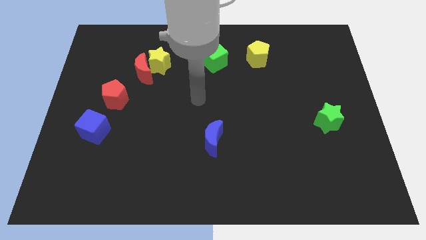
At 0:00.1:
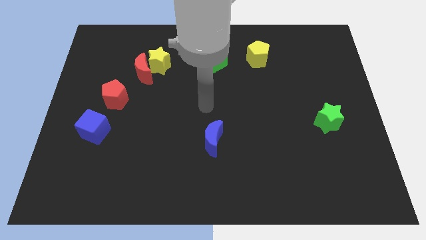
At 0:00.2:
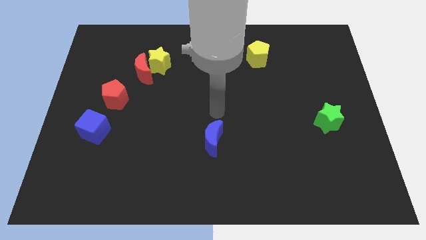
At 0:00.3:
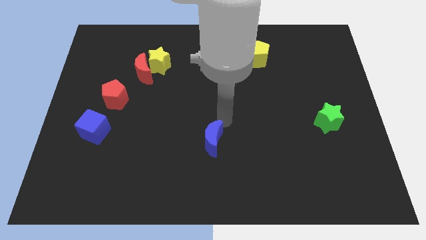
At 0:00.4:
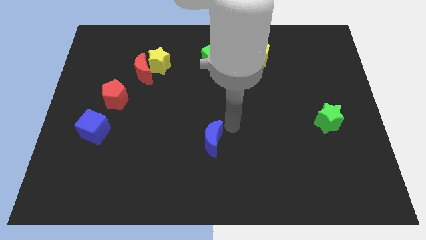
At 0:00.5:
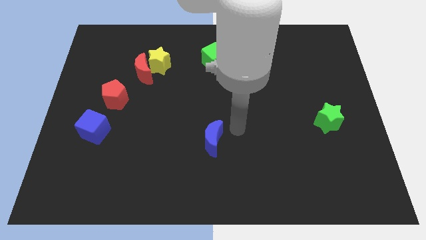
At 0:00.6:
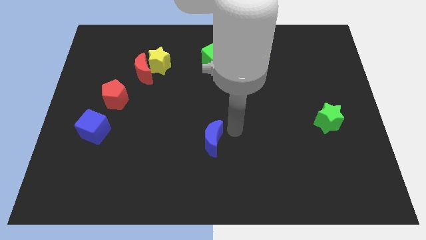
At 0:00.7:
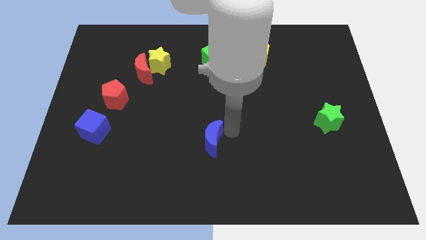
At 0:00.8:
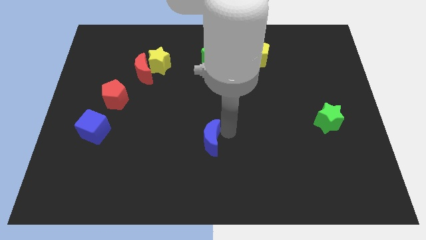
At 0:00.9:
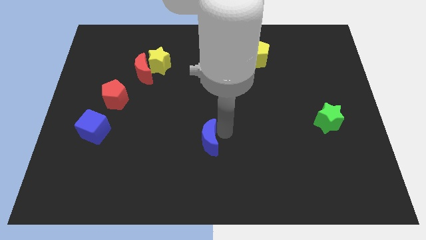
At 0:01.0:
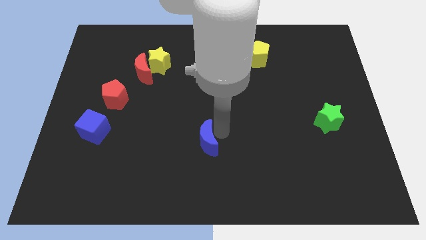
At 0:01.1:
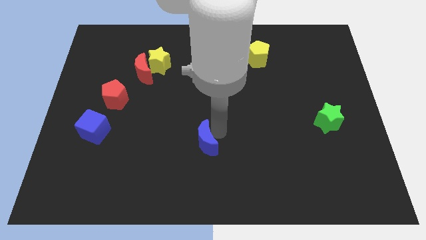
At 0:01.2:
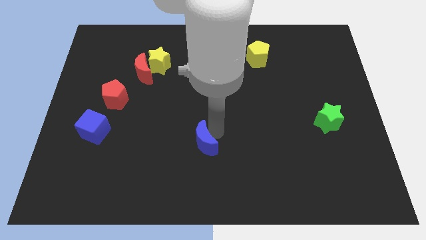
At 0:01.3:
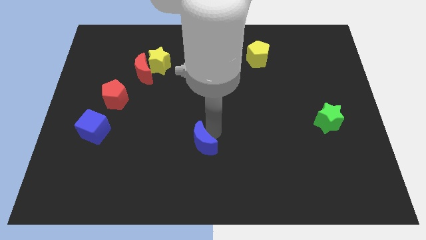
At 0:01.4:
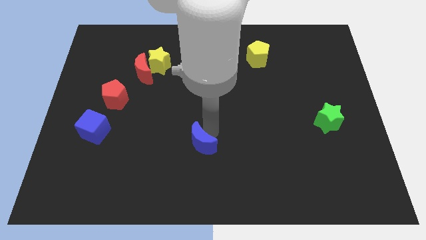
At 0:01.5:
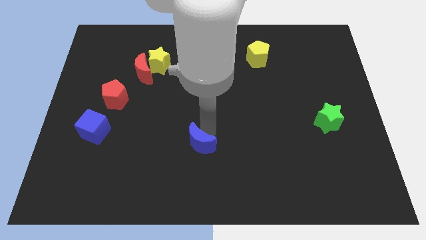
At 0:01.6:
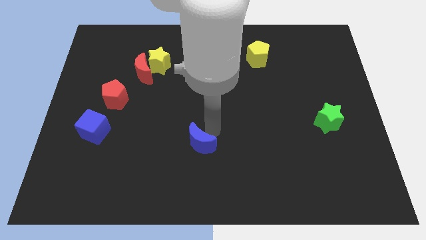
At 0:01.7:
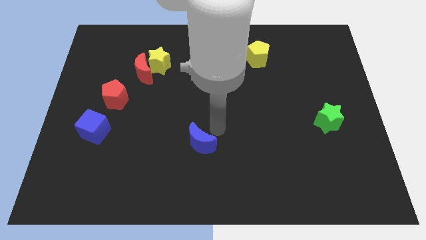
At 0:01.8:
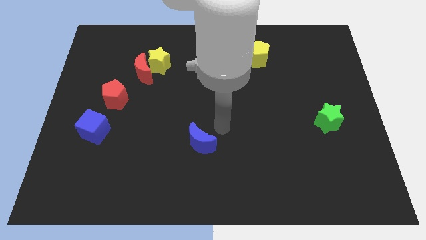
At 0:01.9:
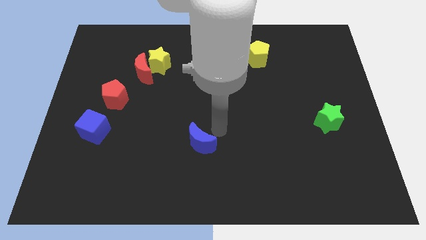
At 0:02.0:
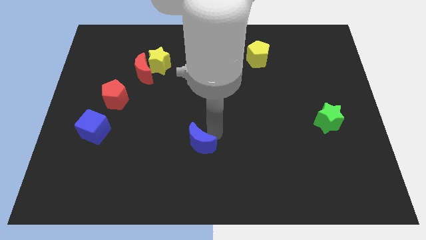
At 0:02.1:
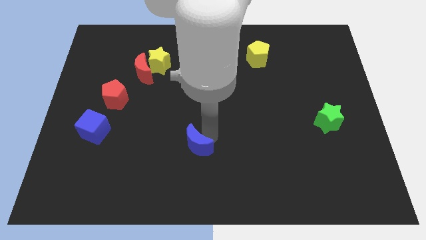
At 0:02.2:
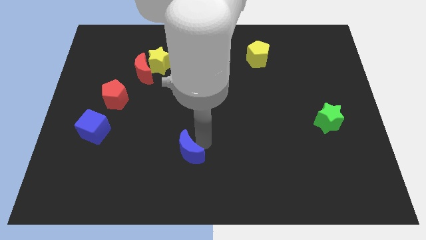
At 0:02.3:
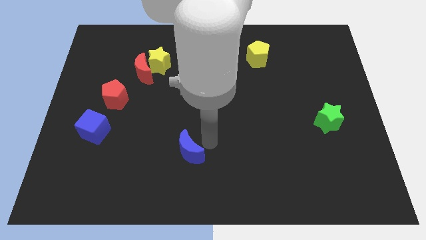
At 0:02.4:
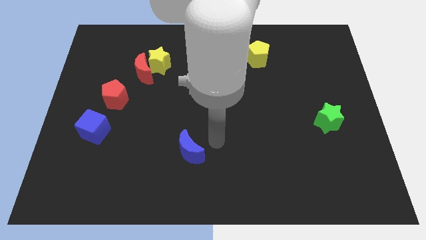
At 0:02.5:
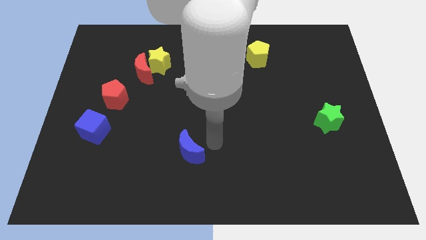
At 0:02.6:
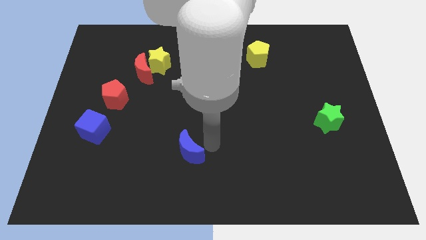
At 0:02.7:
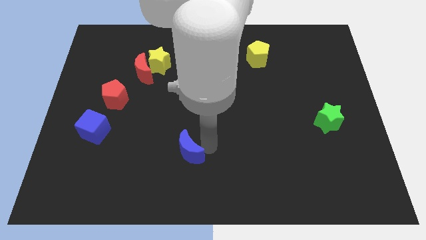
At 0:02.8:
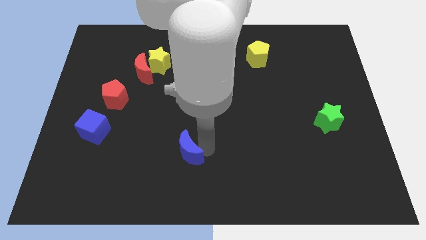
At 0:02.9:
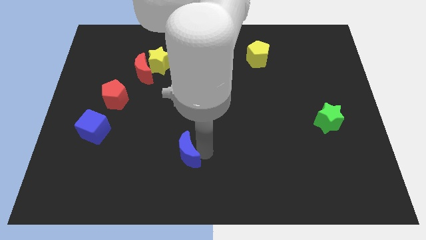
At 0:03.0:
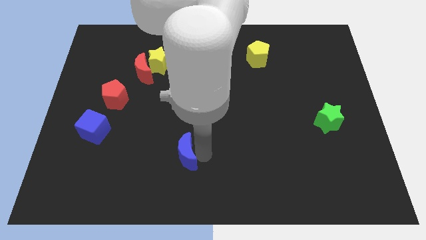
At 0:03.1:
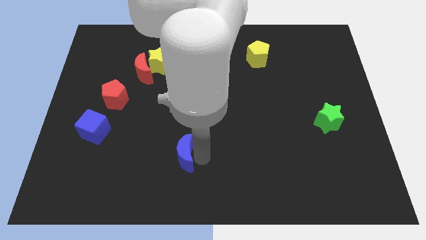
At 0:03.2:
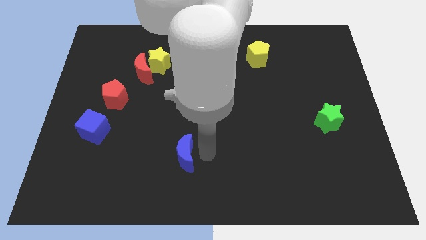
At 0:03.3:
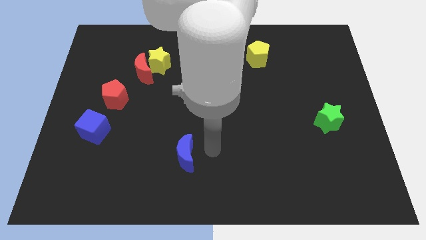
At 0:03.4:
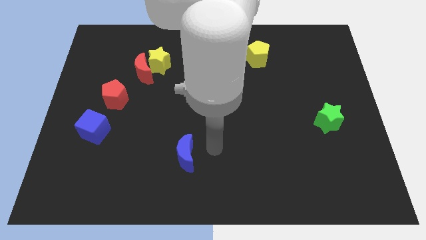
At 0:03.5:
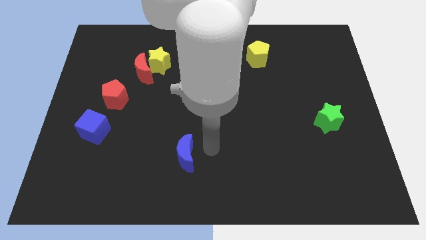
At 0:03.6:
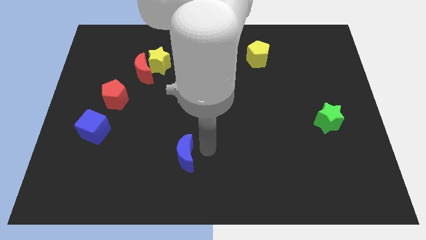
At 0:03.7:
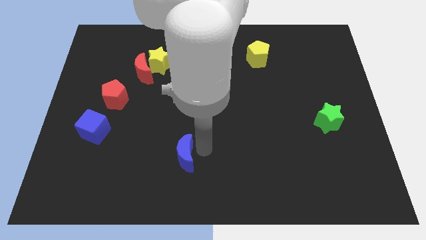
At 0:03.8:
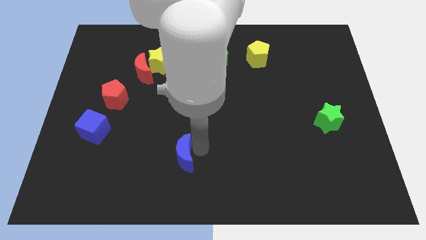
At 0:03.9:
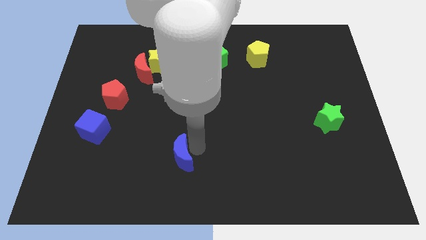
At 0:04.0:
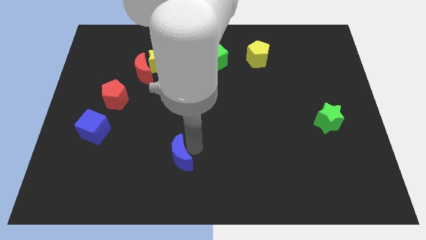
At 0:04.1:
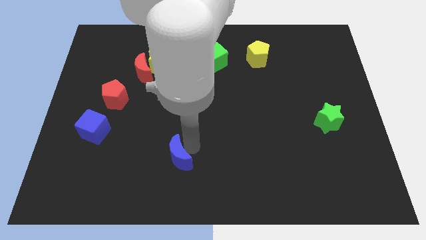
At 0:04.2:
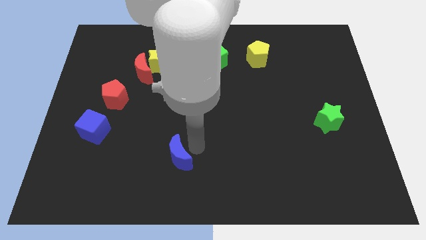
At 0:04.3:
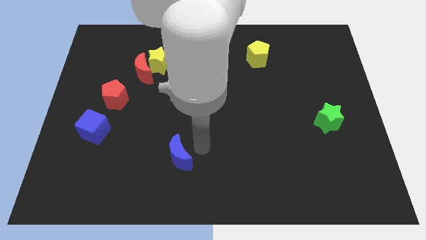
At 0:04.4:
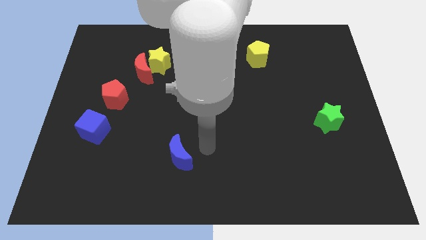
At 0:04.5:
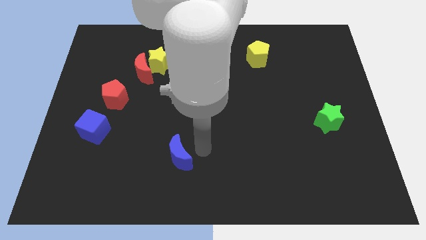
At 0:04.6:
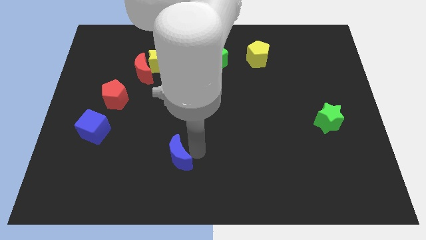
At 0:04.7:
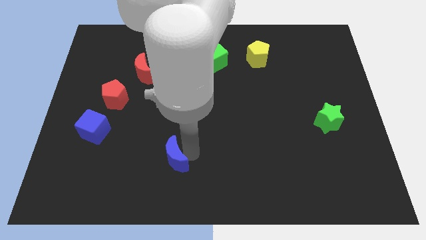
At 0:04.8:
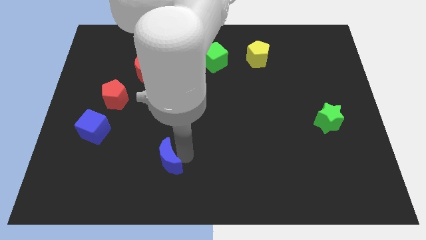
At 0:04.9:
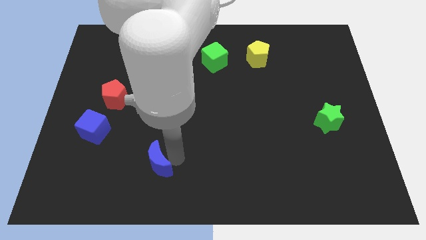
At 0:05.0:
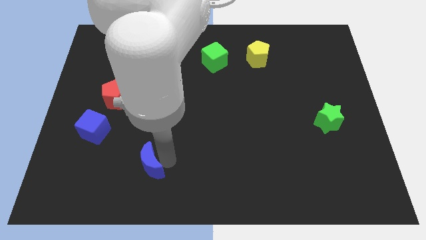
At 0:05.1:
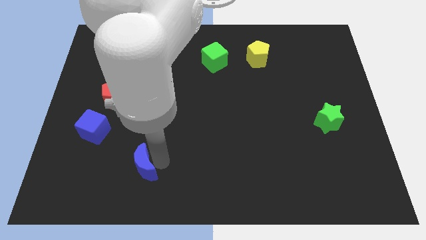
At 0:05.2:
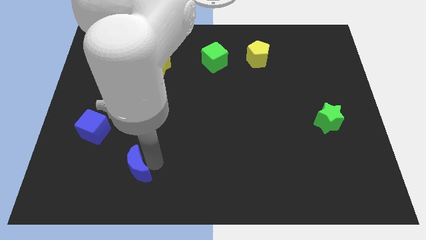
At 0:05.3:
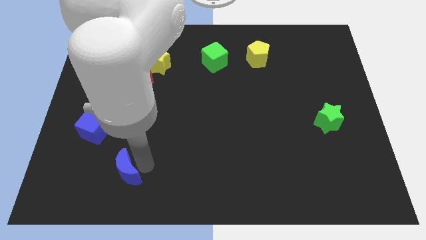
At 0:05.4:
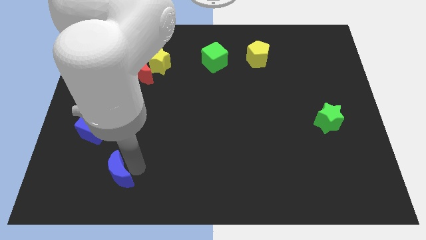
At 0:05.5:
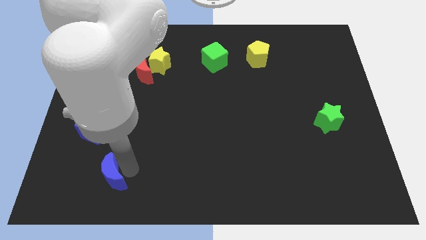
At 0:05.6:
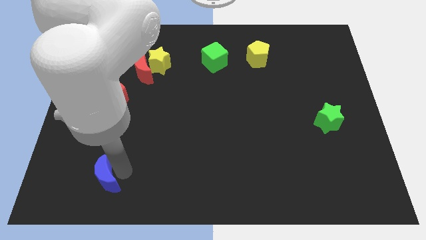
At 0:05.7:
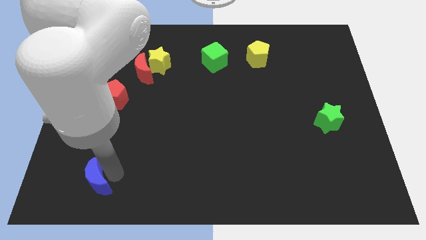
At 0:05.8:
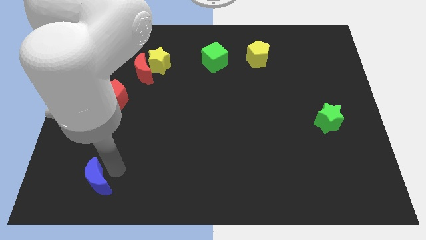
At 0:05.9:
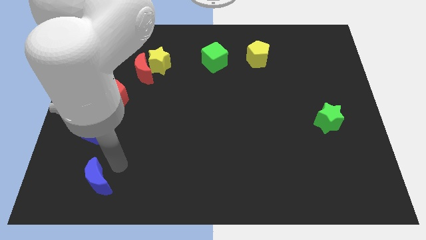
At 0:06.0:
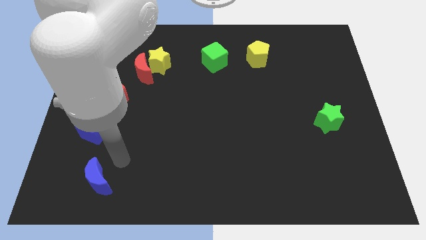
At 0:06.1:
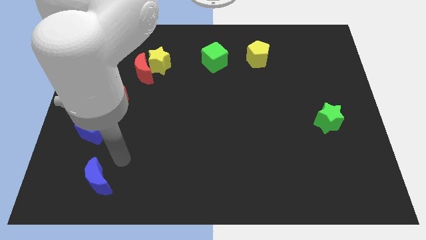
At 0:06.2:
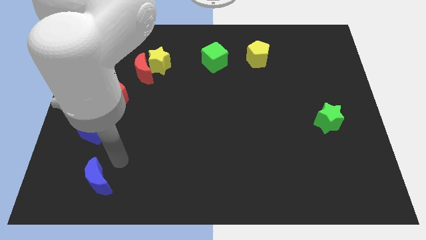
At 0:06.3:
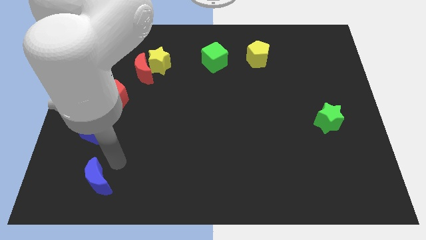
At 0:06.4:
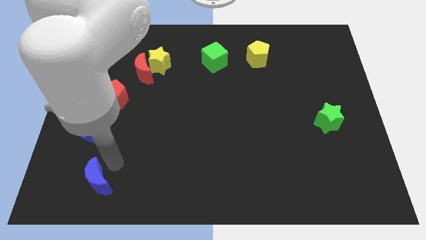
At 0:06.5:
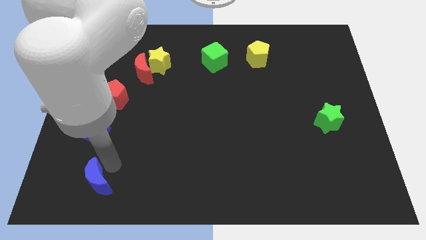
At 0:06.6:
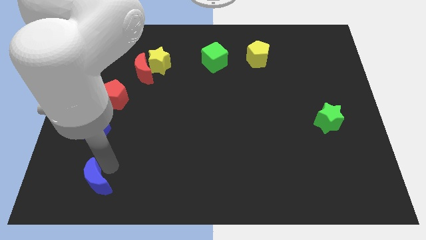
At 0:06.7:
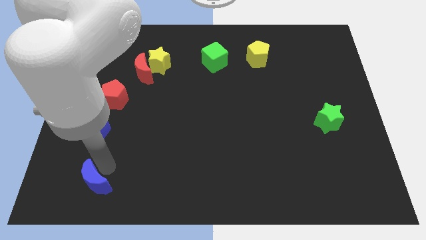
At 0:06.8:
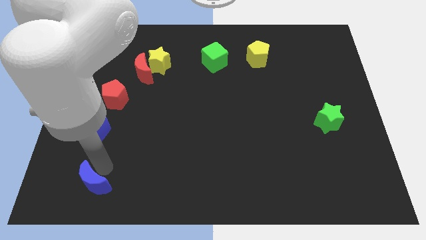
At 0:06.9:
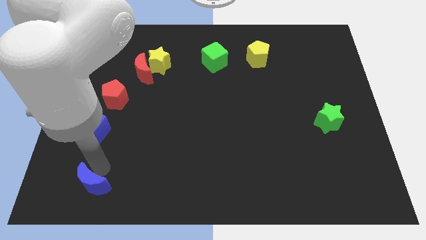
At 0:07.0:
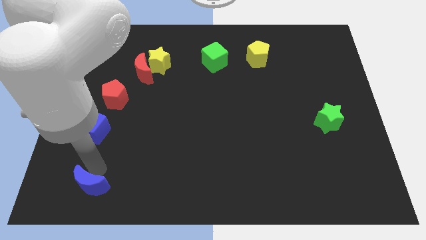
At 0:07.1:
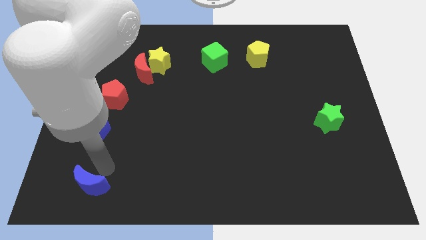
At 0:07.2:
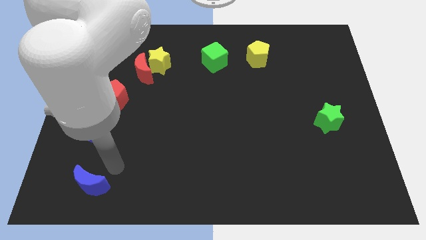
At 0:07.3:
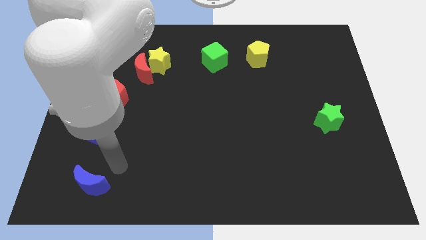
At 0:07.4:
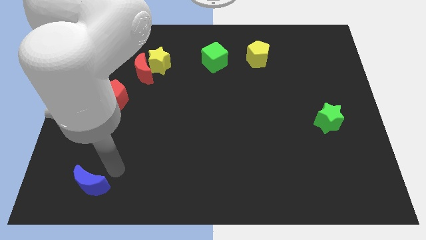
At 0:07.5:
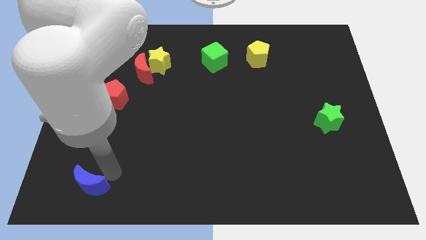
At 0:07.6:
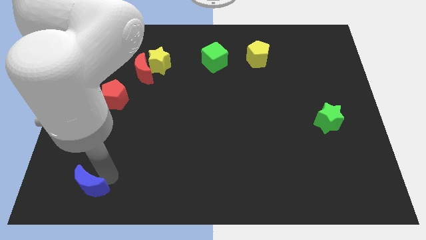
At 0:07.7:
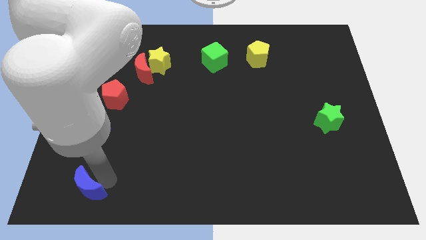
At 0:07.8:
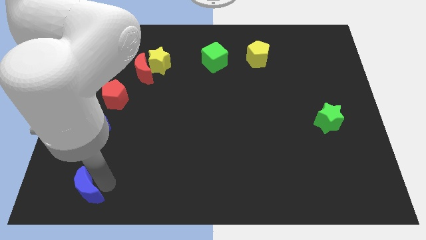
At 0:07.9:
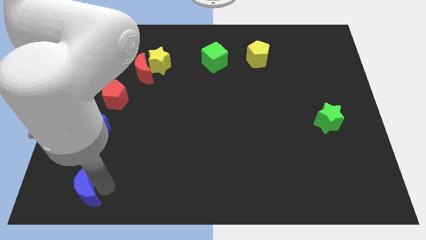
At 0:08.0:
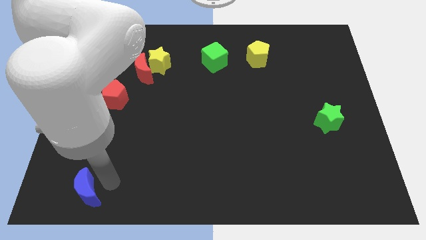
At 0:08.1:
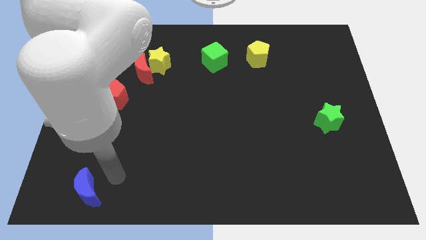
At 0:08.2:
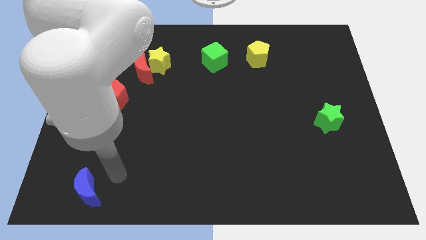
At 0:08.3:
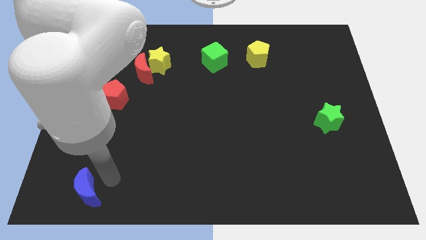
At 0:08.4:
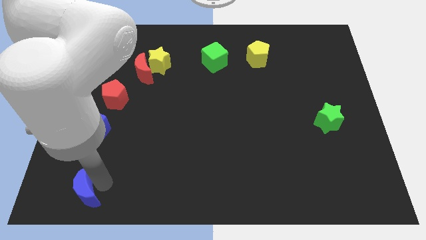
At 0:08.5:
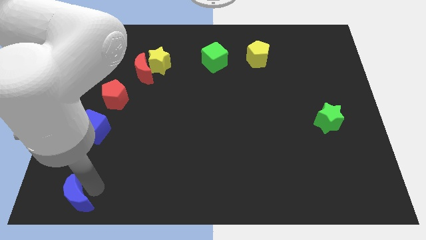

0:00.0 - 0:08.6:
move the blue moon to the bottom left of the board
